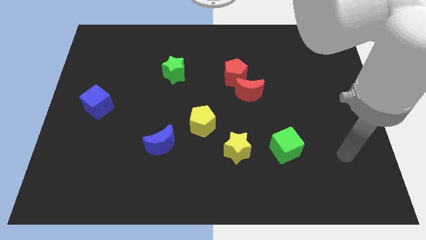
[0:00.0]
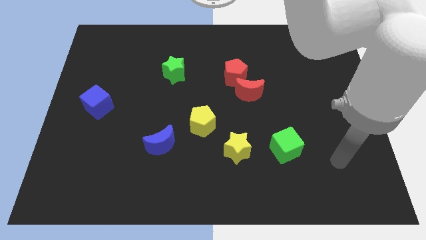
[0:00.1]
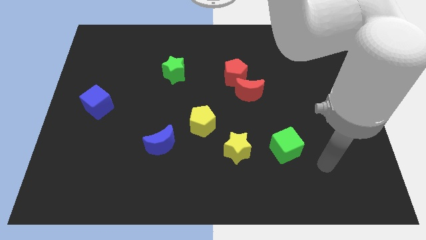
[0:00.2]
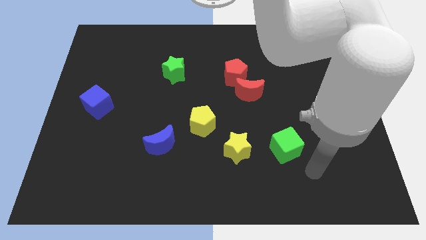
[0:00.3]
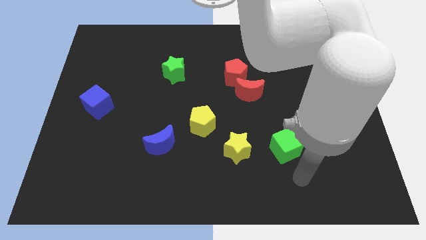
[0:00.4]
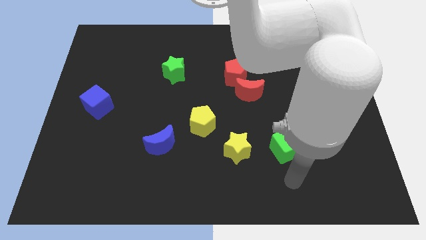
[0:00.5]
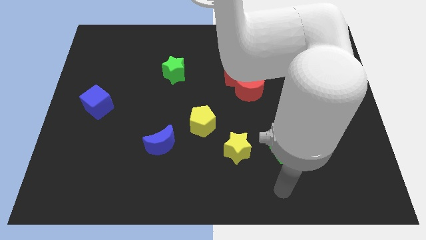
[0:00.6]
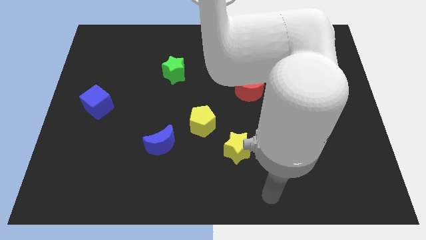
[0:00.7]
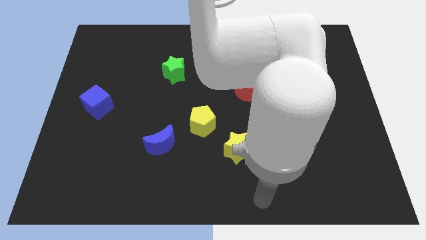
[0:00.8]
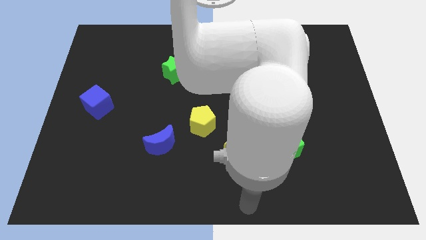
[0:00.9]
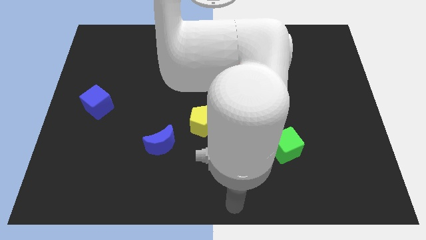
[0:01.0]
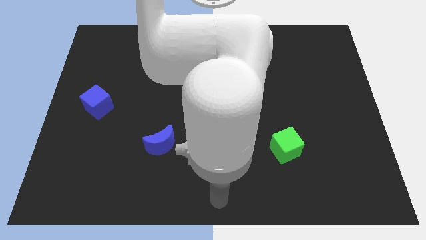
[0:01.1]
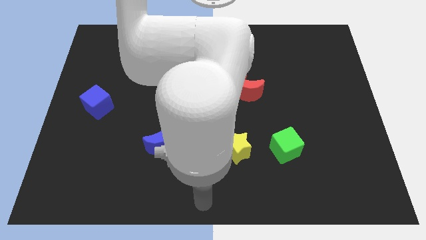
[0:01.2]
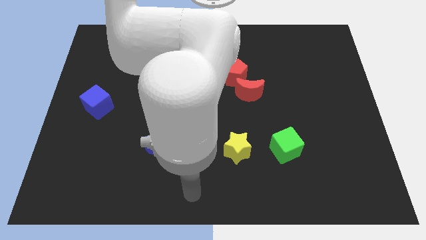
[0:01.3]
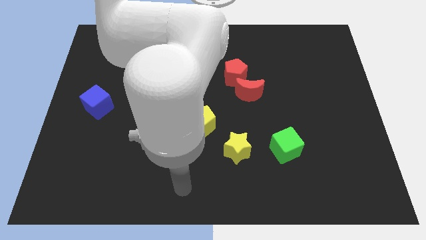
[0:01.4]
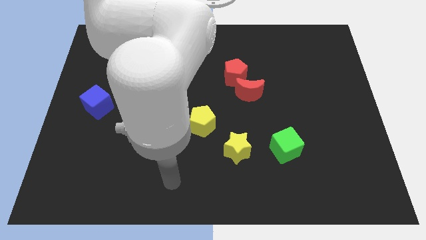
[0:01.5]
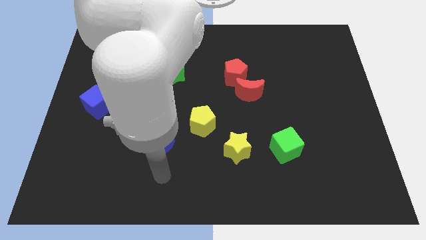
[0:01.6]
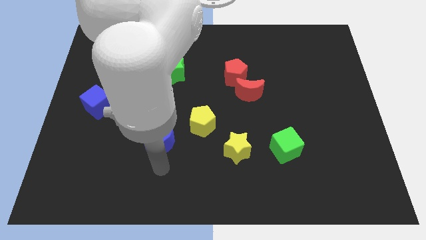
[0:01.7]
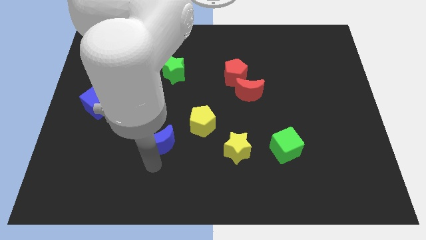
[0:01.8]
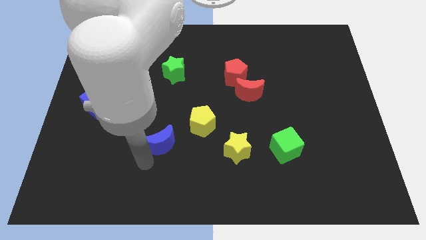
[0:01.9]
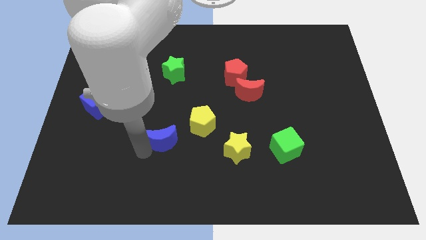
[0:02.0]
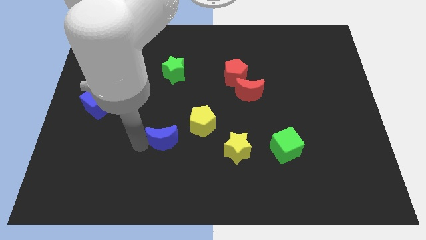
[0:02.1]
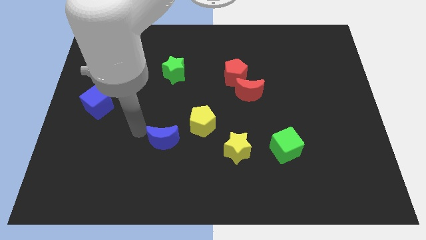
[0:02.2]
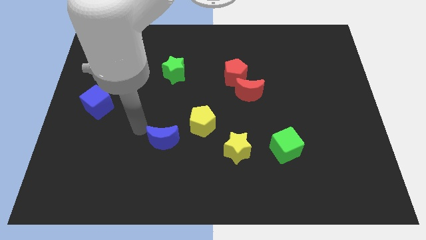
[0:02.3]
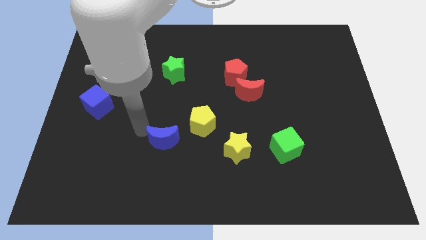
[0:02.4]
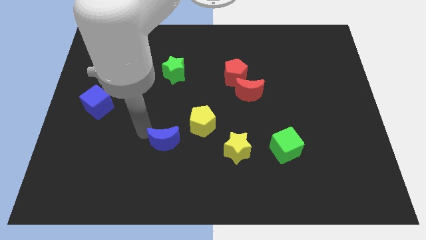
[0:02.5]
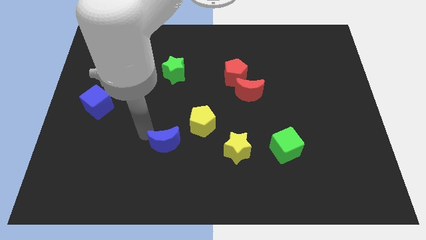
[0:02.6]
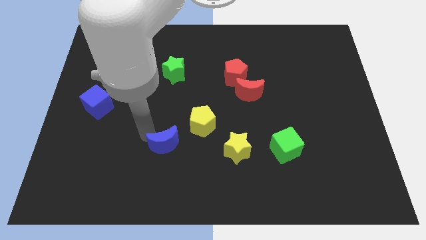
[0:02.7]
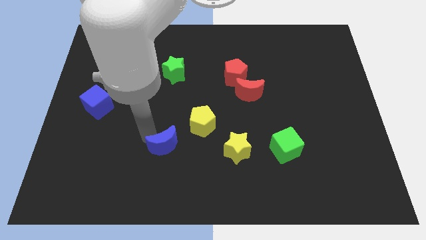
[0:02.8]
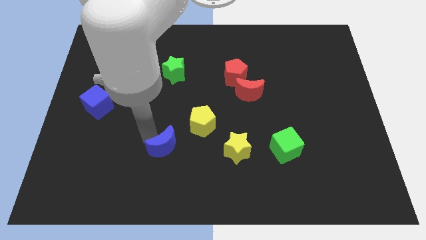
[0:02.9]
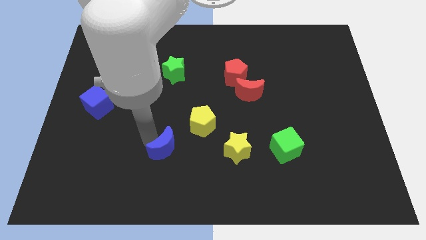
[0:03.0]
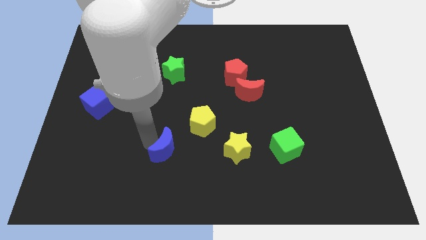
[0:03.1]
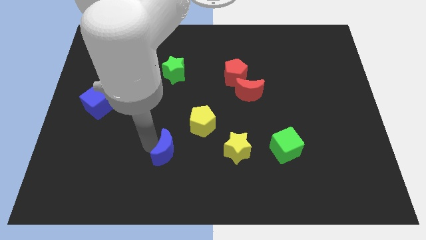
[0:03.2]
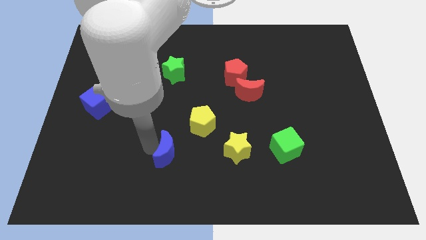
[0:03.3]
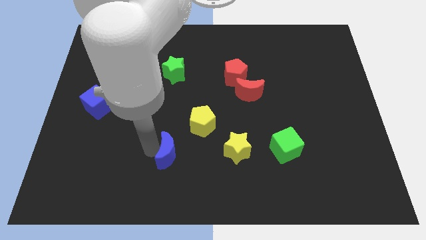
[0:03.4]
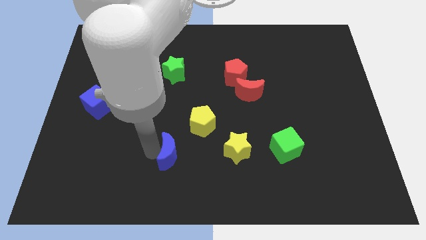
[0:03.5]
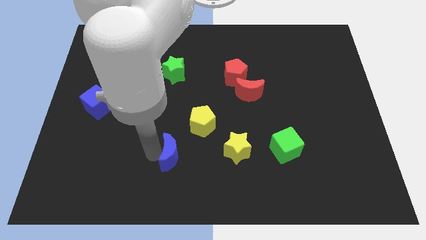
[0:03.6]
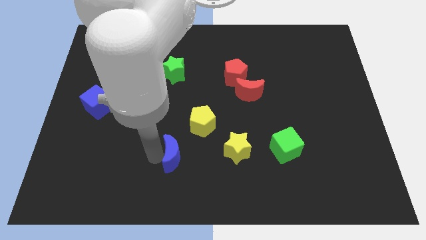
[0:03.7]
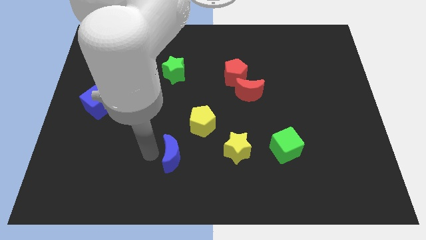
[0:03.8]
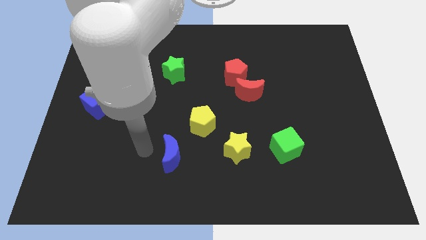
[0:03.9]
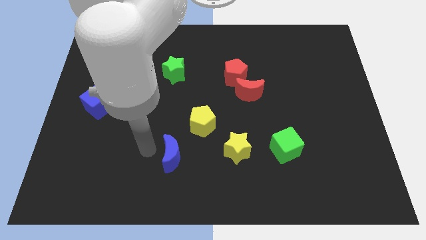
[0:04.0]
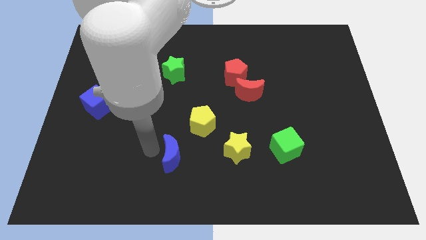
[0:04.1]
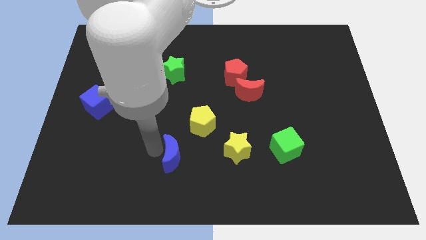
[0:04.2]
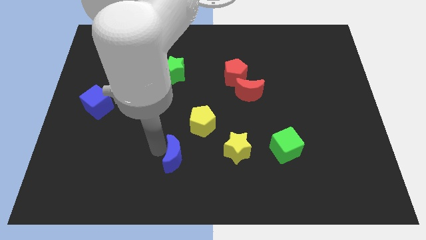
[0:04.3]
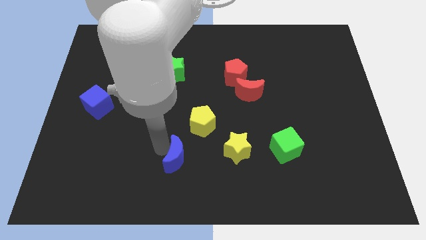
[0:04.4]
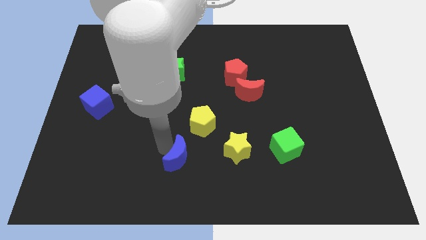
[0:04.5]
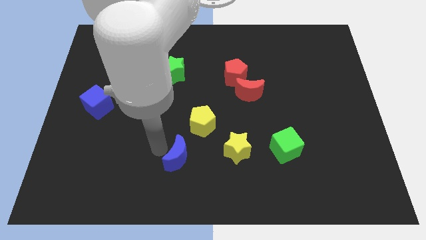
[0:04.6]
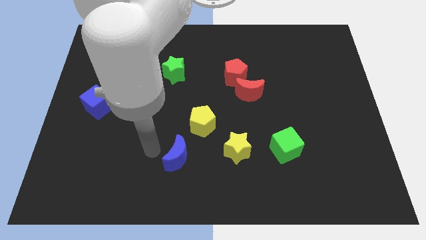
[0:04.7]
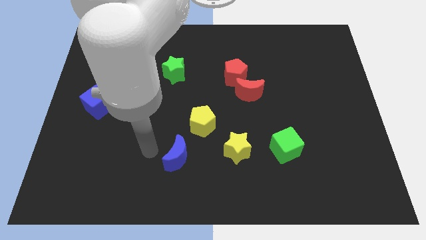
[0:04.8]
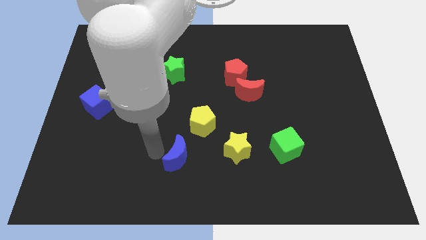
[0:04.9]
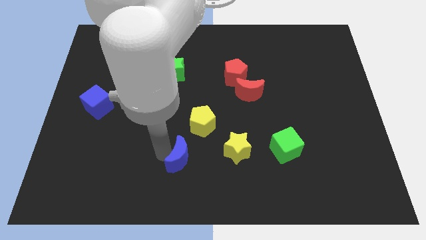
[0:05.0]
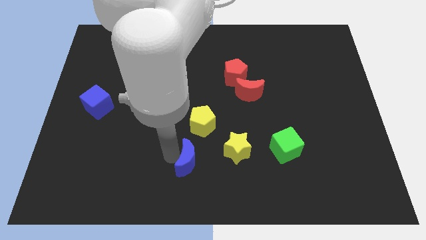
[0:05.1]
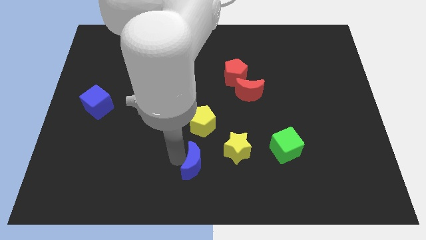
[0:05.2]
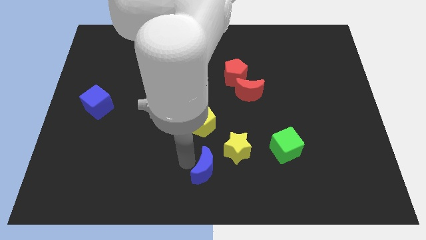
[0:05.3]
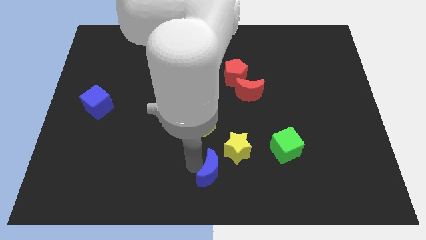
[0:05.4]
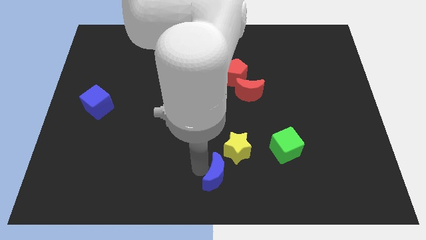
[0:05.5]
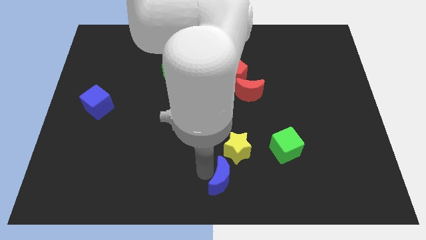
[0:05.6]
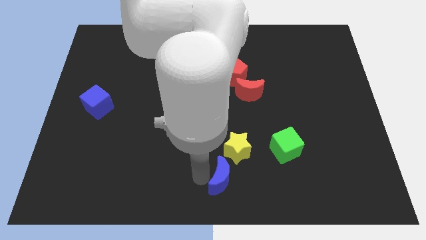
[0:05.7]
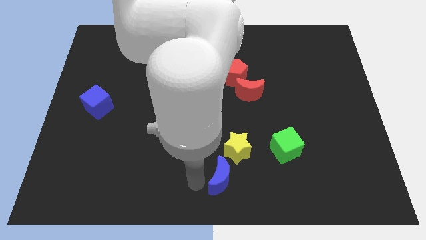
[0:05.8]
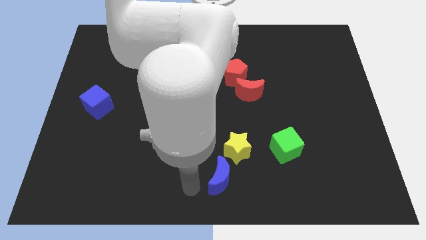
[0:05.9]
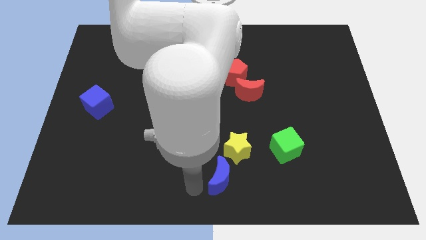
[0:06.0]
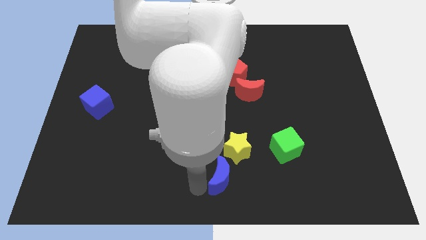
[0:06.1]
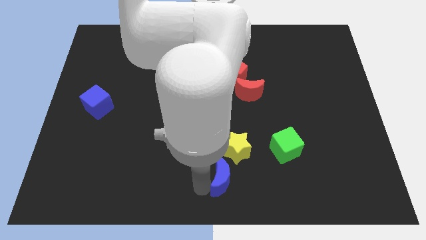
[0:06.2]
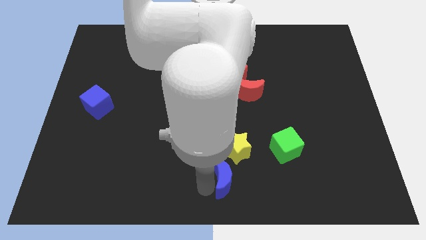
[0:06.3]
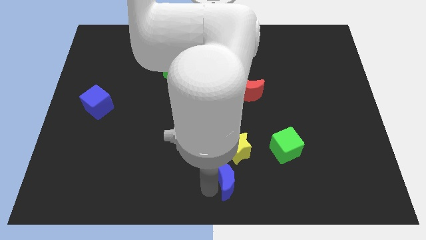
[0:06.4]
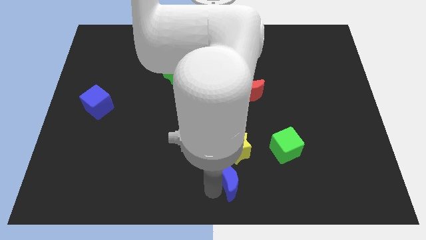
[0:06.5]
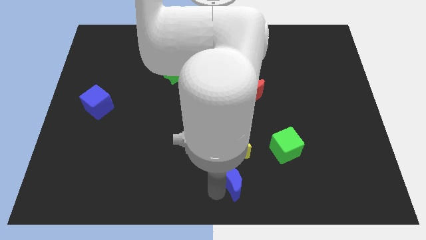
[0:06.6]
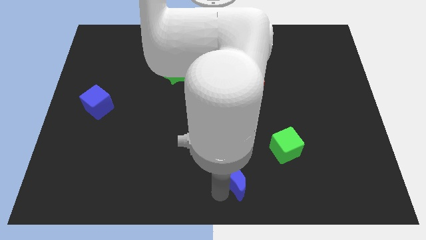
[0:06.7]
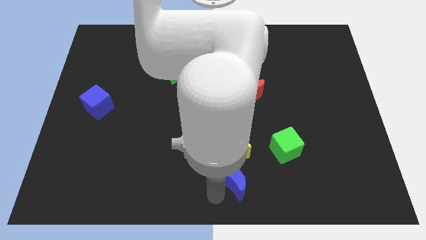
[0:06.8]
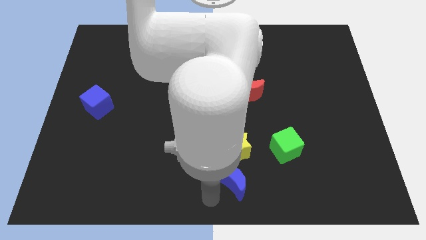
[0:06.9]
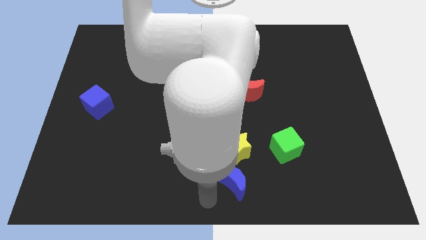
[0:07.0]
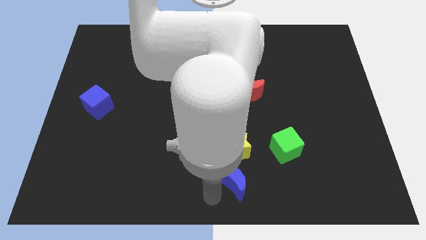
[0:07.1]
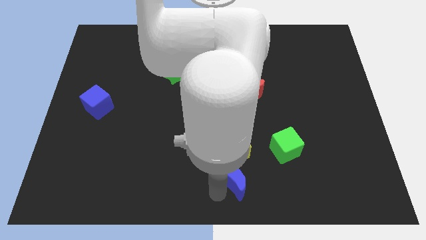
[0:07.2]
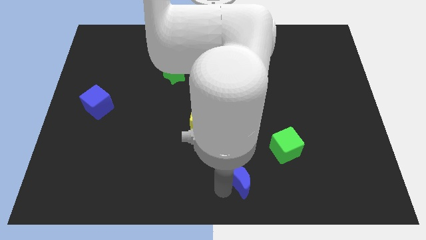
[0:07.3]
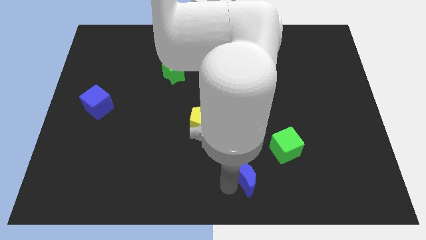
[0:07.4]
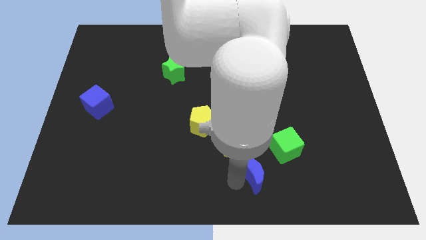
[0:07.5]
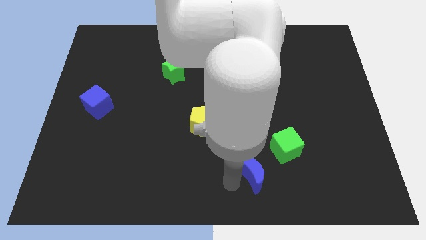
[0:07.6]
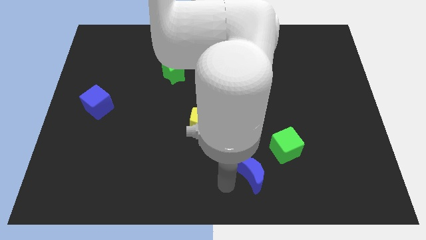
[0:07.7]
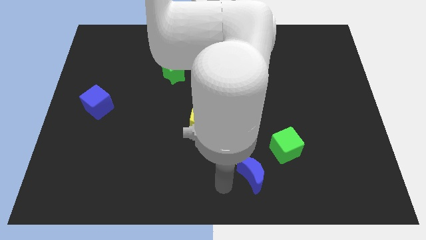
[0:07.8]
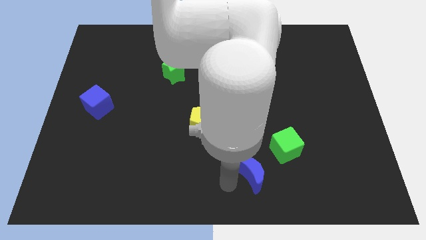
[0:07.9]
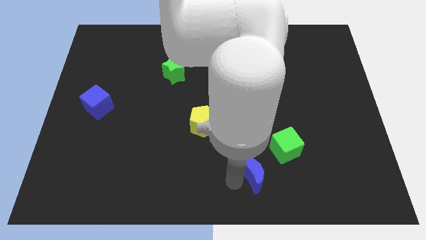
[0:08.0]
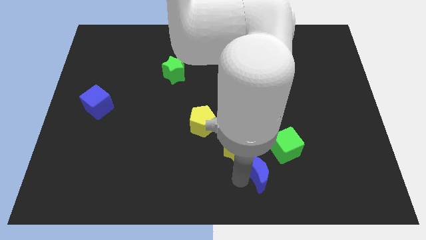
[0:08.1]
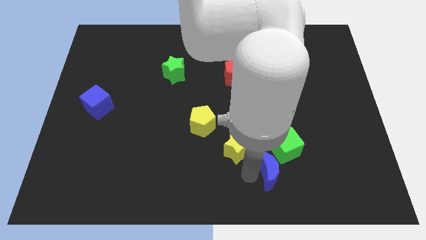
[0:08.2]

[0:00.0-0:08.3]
slide the blue moon right

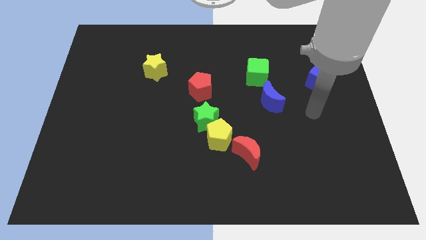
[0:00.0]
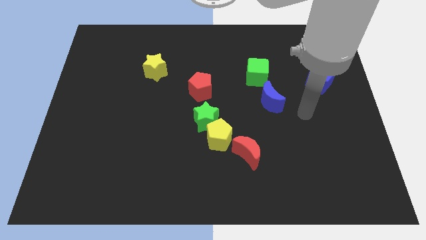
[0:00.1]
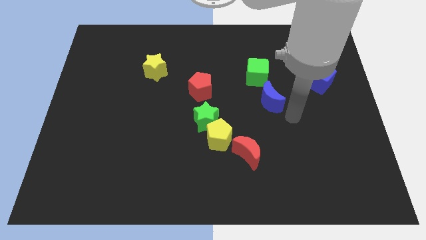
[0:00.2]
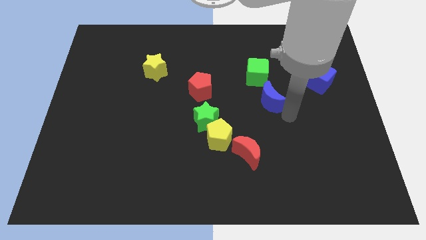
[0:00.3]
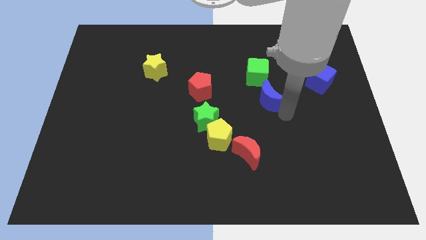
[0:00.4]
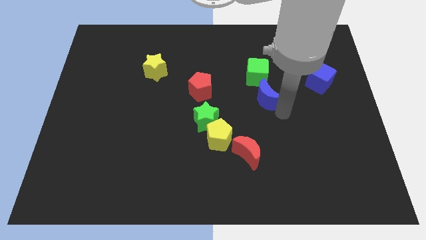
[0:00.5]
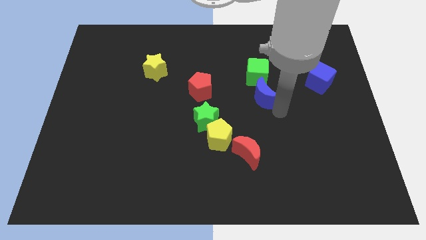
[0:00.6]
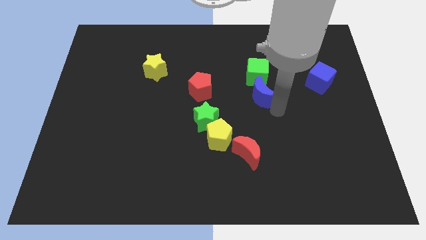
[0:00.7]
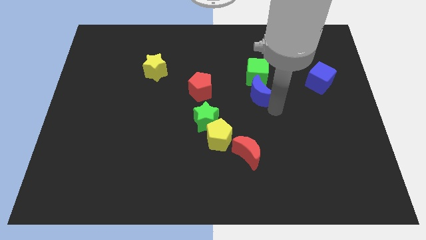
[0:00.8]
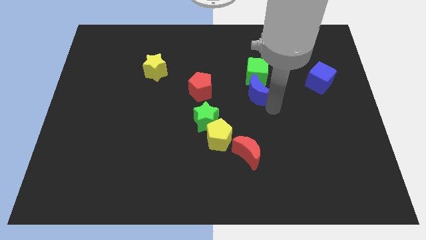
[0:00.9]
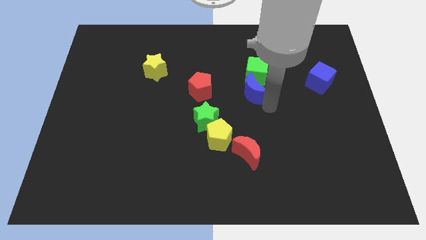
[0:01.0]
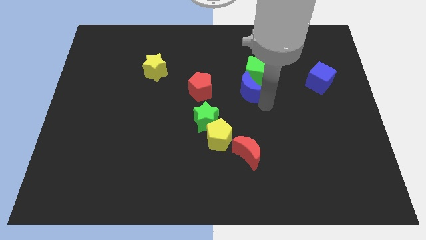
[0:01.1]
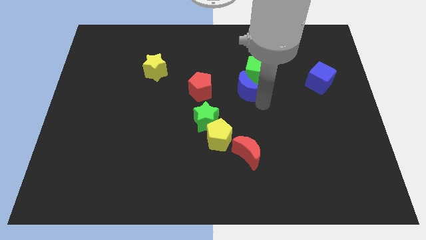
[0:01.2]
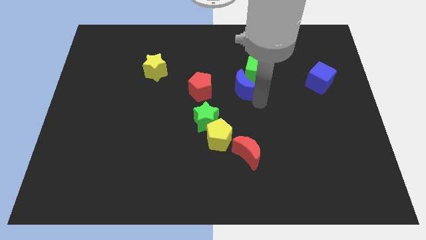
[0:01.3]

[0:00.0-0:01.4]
push the blue moon somewhat diagonally upwards and to the left
